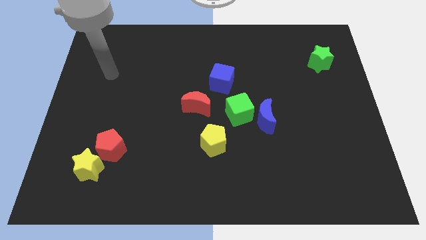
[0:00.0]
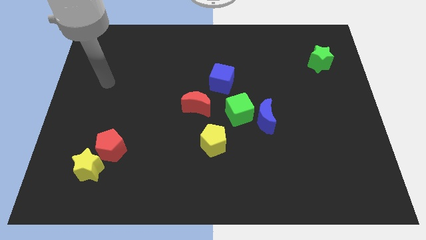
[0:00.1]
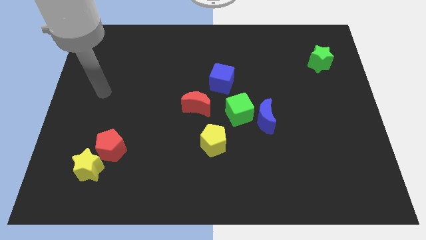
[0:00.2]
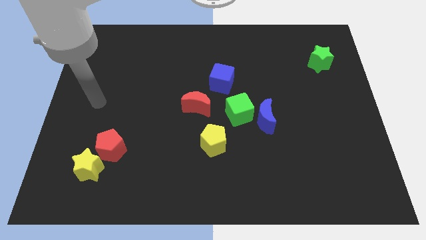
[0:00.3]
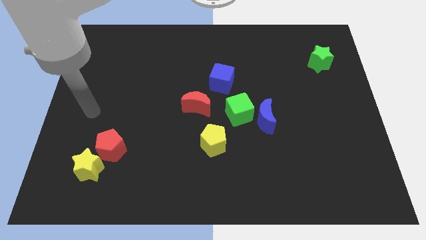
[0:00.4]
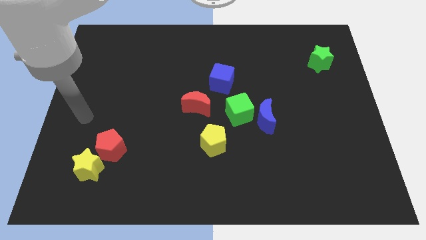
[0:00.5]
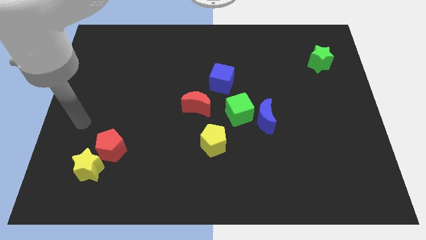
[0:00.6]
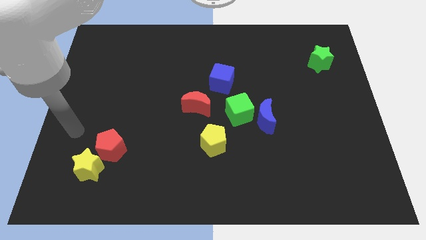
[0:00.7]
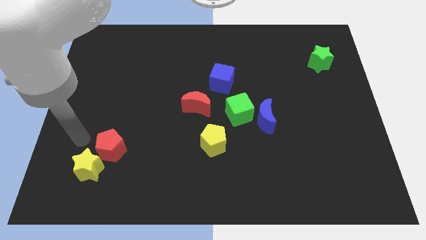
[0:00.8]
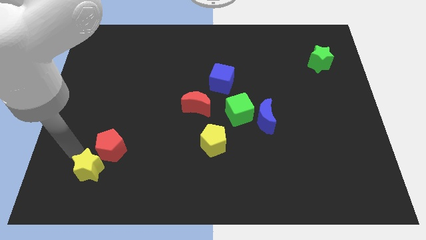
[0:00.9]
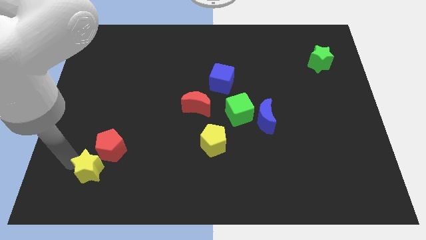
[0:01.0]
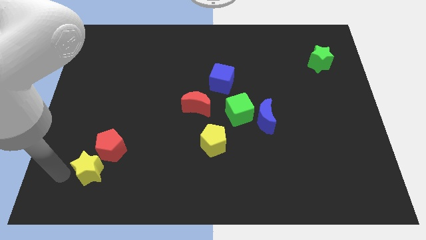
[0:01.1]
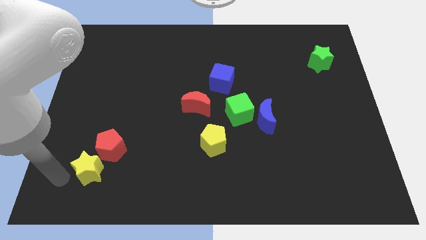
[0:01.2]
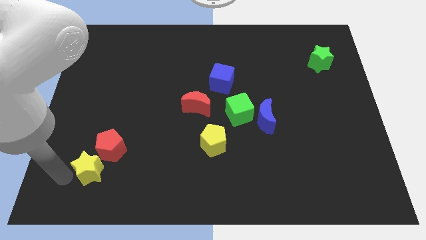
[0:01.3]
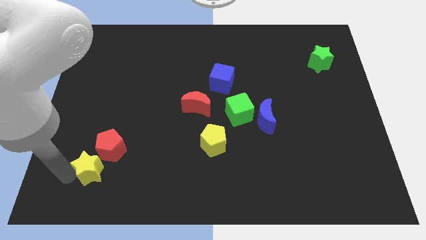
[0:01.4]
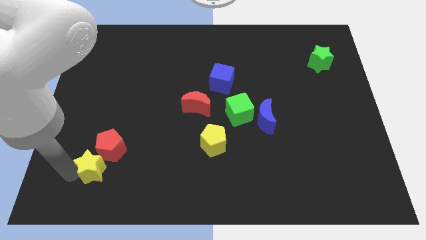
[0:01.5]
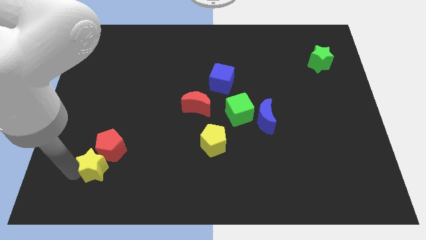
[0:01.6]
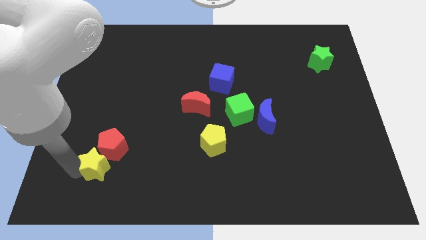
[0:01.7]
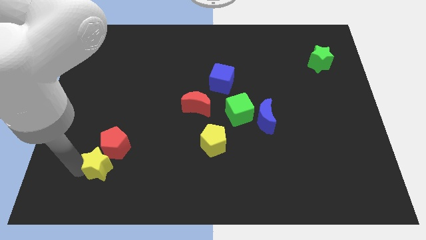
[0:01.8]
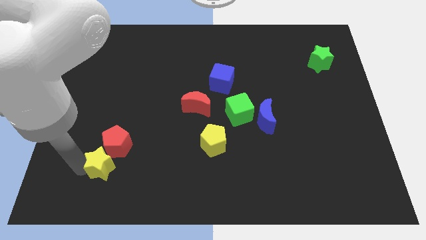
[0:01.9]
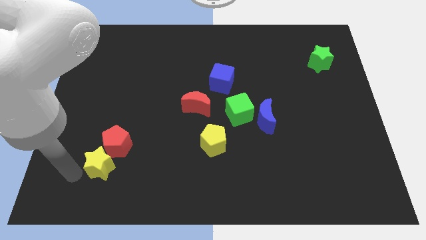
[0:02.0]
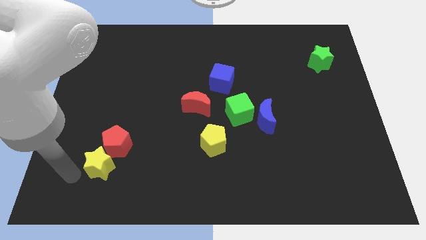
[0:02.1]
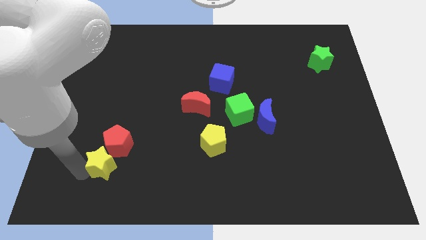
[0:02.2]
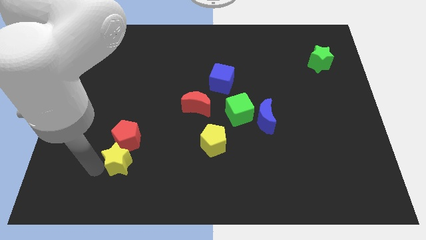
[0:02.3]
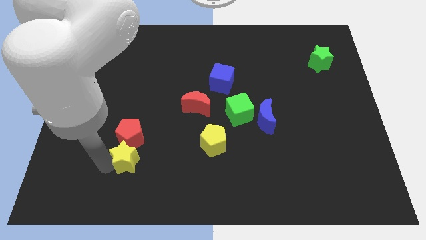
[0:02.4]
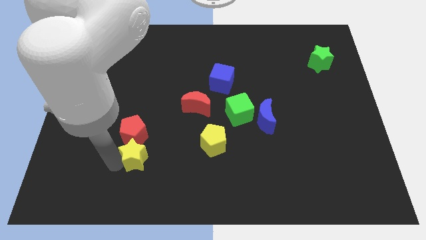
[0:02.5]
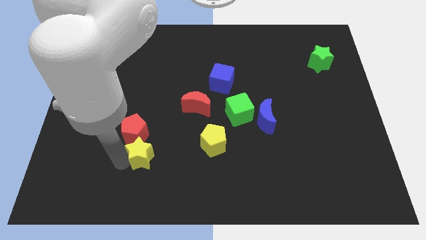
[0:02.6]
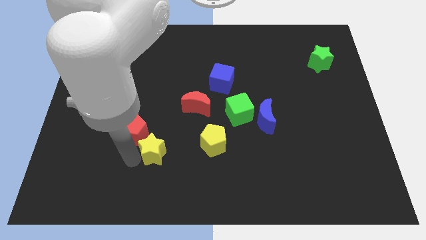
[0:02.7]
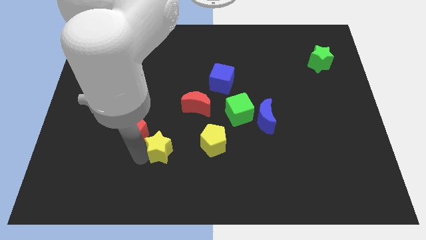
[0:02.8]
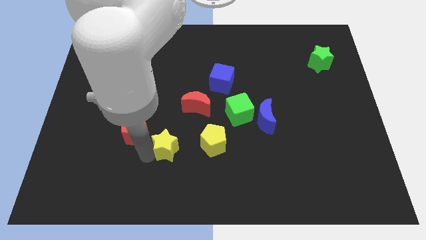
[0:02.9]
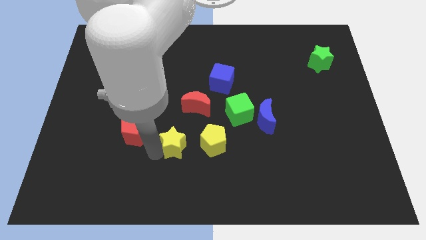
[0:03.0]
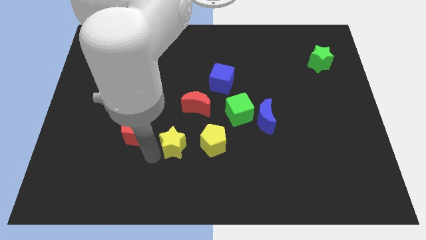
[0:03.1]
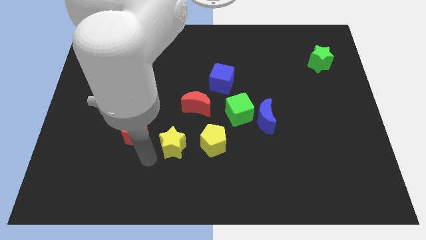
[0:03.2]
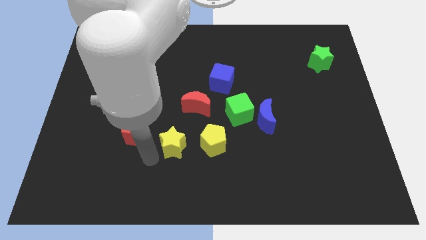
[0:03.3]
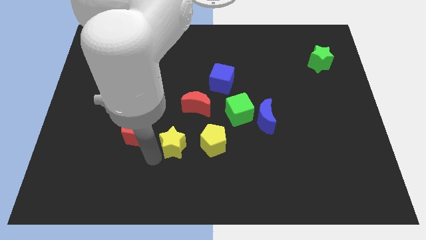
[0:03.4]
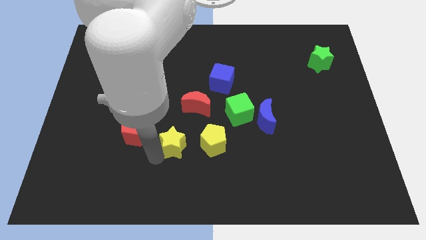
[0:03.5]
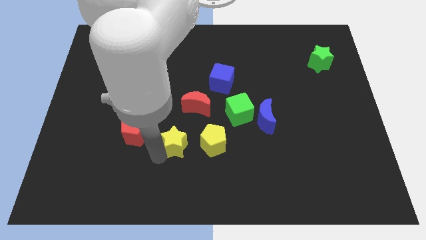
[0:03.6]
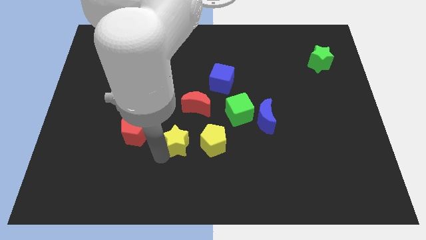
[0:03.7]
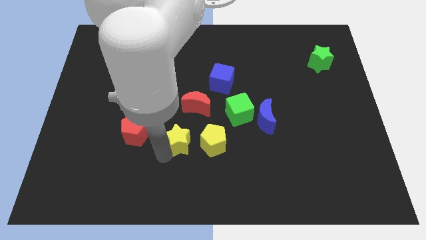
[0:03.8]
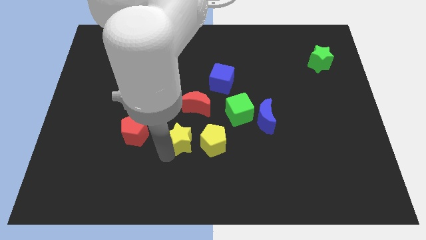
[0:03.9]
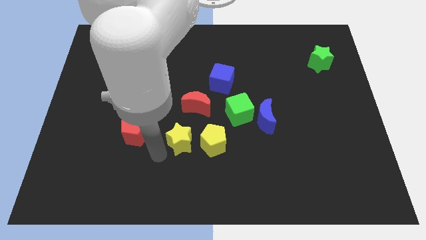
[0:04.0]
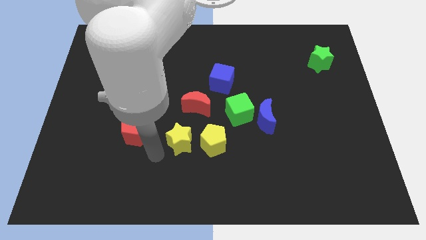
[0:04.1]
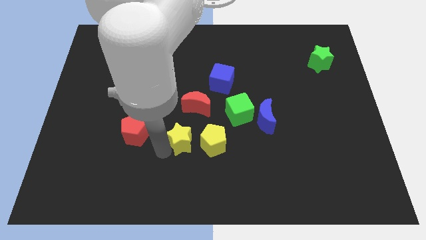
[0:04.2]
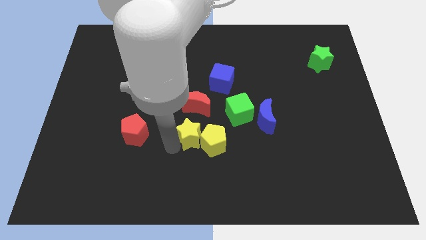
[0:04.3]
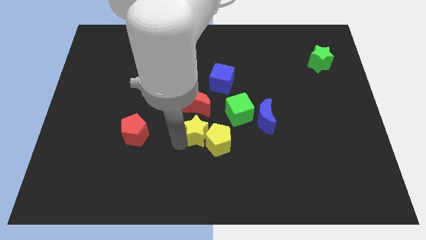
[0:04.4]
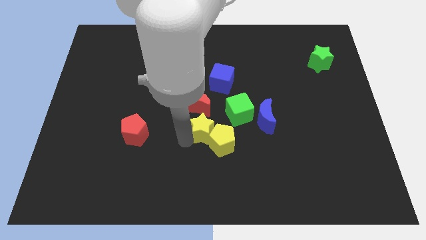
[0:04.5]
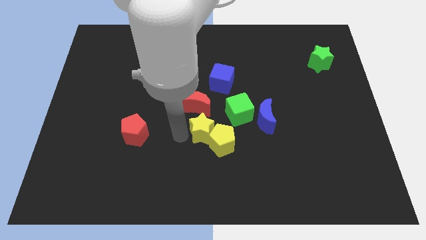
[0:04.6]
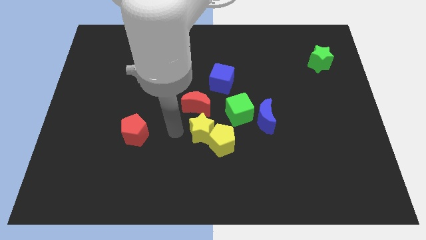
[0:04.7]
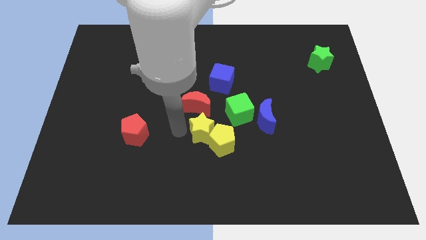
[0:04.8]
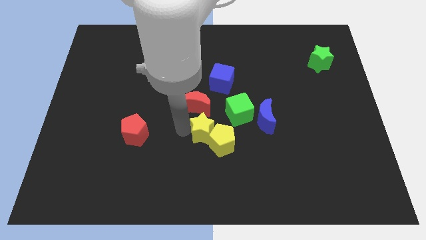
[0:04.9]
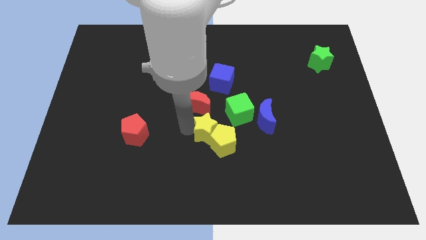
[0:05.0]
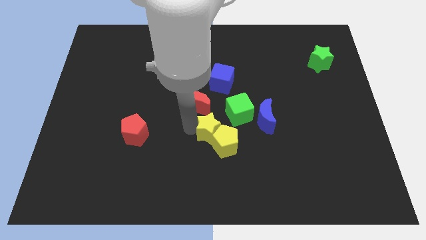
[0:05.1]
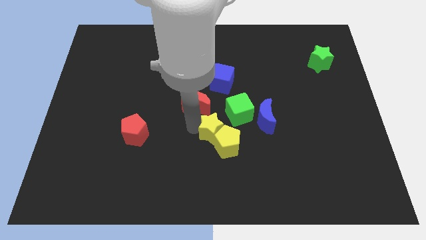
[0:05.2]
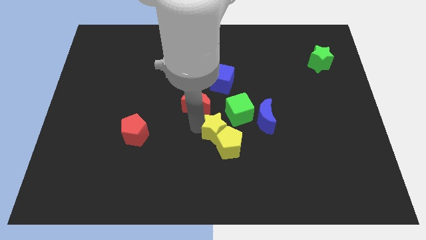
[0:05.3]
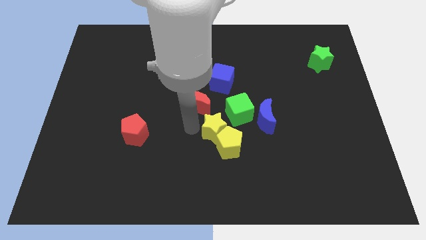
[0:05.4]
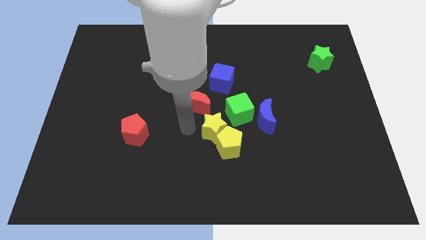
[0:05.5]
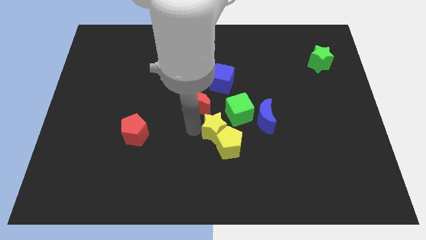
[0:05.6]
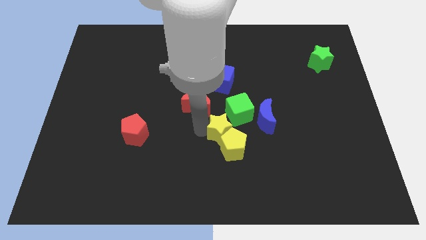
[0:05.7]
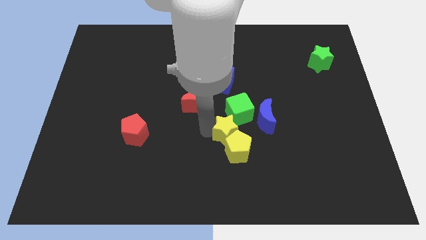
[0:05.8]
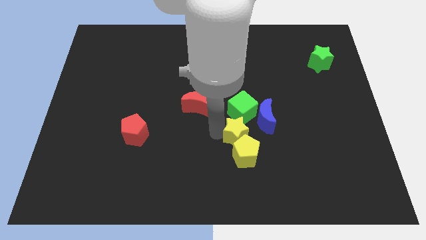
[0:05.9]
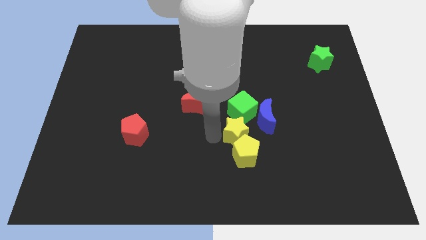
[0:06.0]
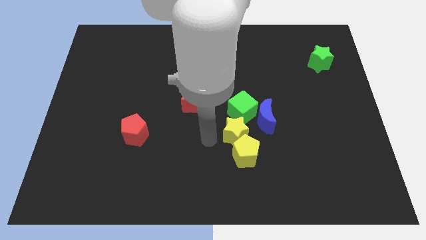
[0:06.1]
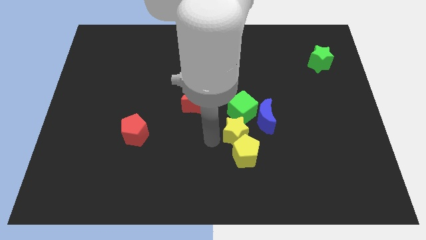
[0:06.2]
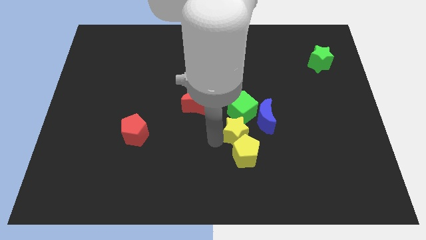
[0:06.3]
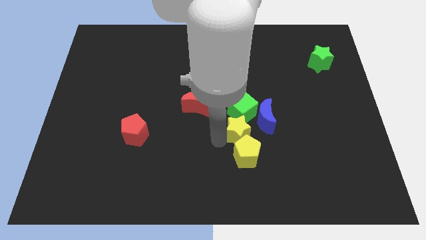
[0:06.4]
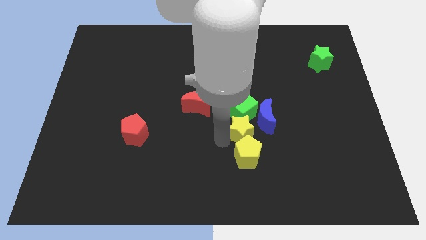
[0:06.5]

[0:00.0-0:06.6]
move the yellow star diagonally down and to the right of the green cube

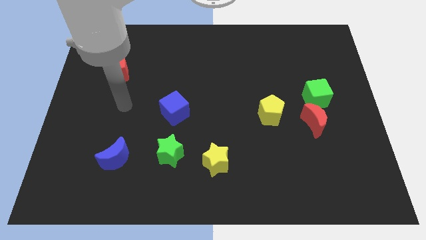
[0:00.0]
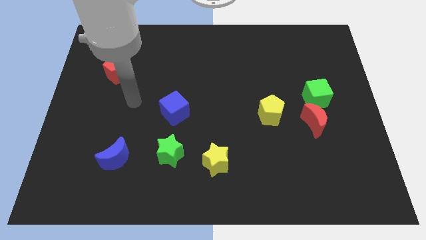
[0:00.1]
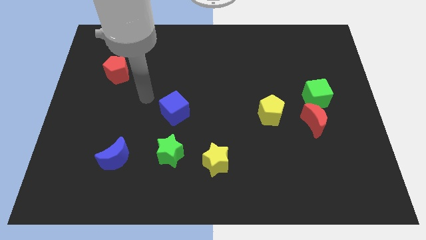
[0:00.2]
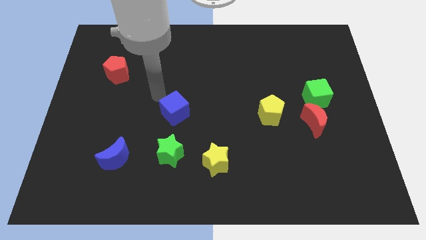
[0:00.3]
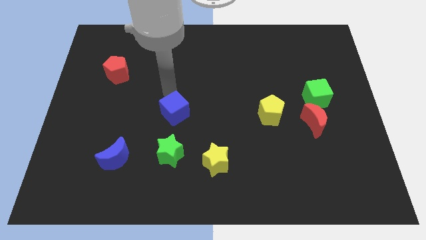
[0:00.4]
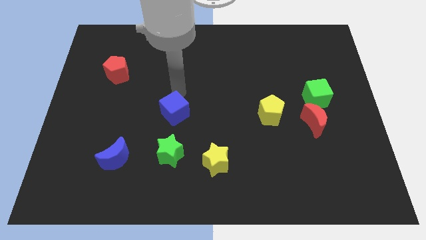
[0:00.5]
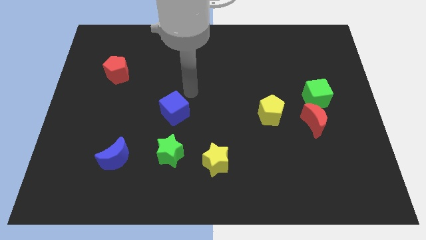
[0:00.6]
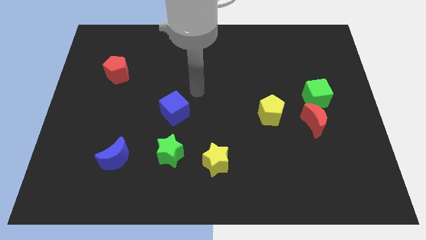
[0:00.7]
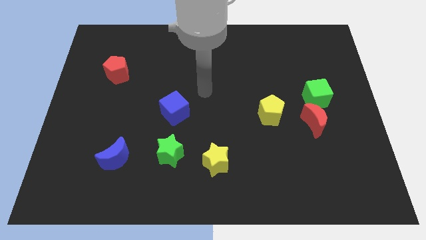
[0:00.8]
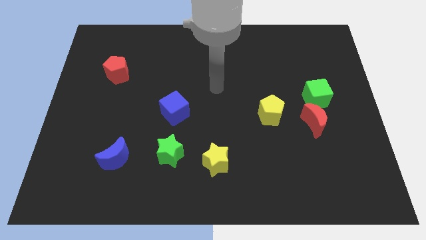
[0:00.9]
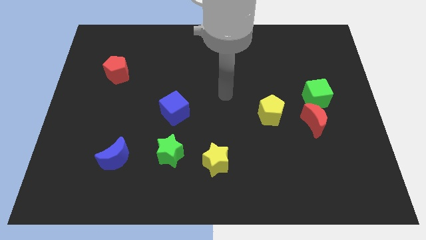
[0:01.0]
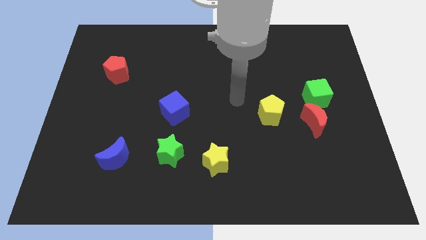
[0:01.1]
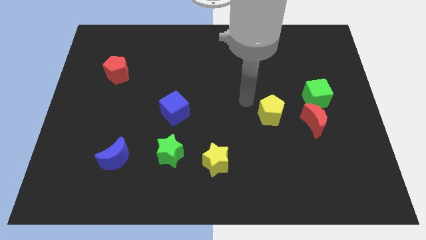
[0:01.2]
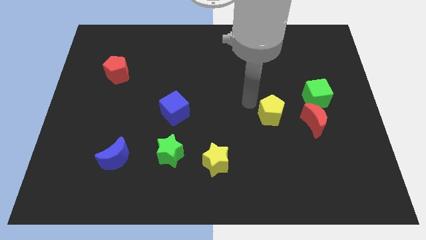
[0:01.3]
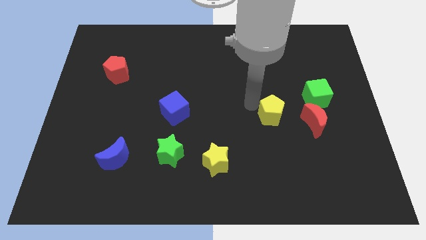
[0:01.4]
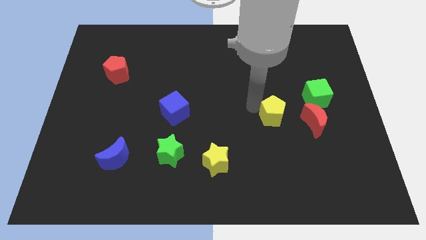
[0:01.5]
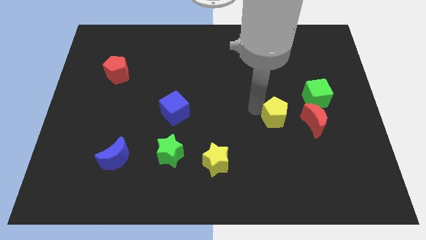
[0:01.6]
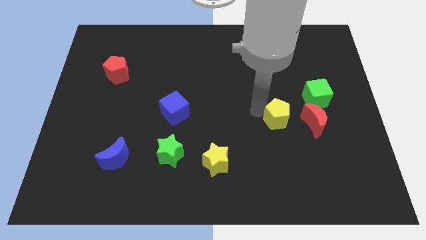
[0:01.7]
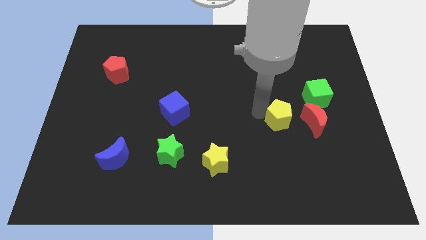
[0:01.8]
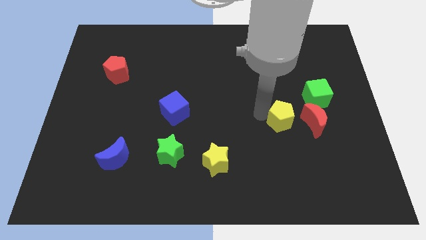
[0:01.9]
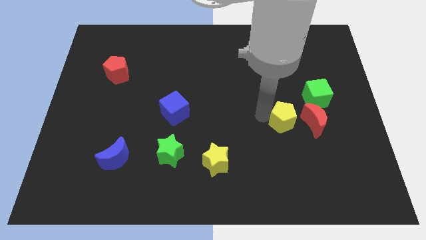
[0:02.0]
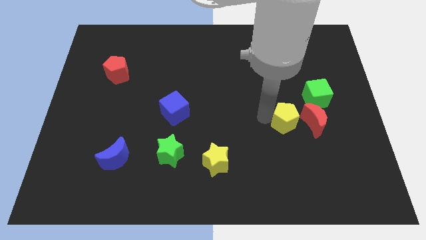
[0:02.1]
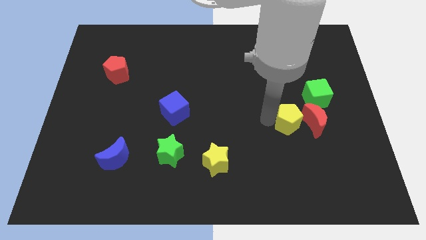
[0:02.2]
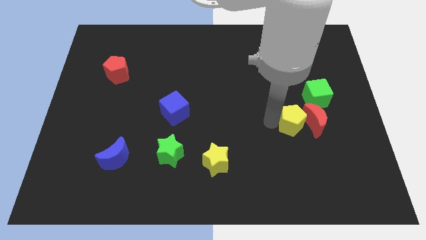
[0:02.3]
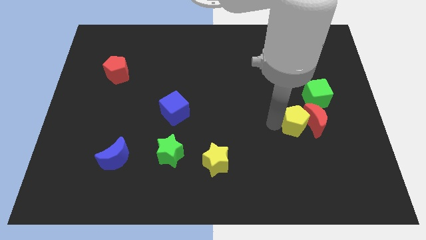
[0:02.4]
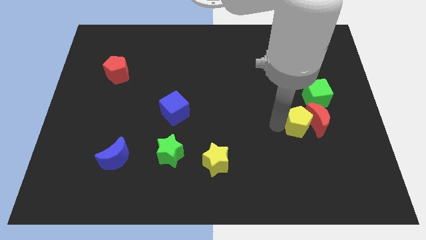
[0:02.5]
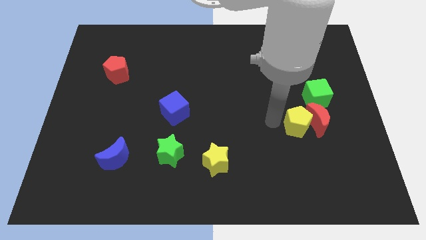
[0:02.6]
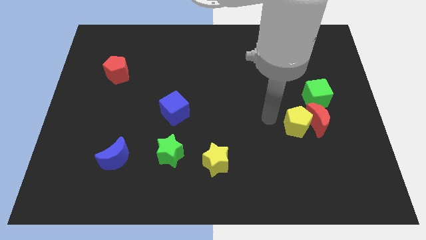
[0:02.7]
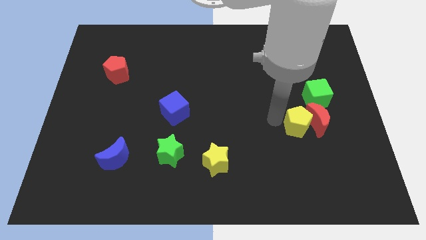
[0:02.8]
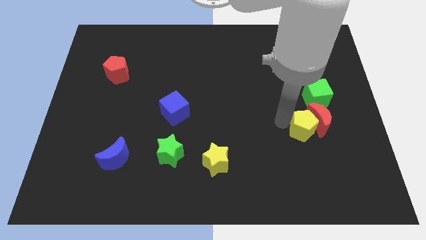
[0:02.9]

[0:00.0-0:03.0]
push the yellow pentagon to the bottom of the green cube
